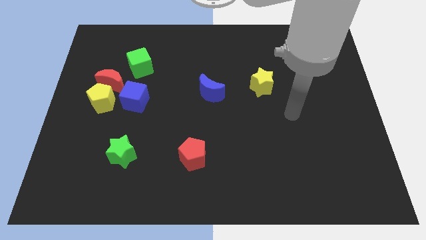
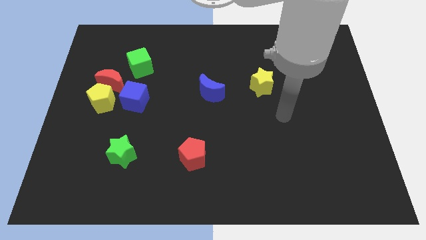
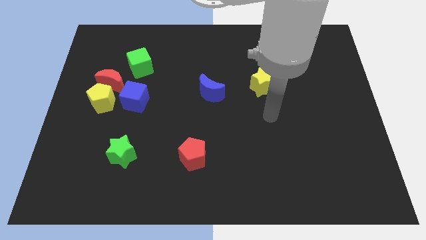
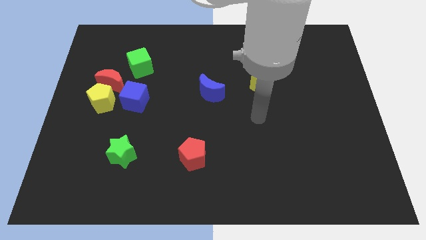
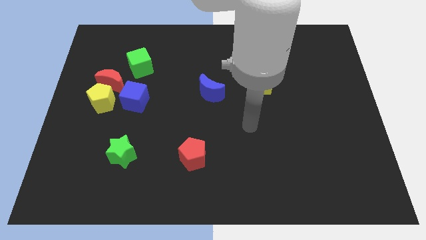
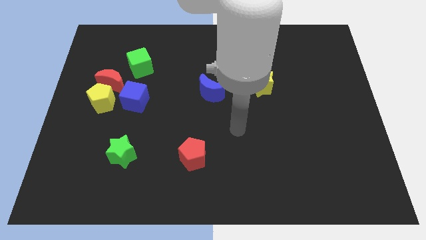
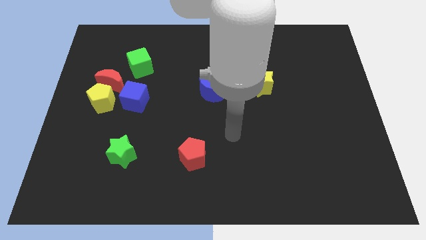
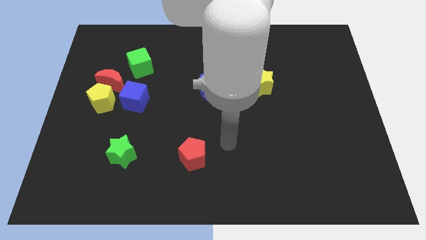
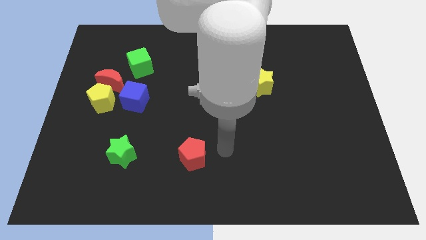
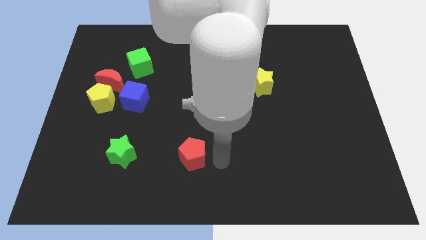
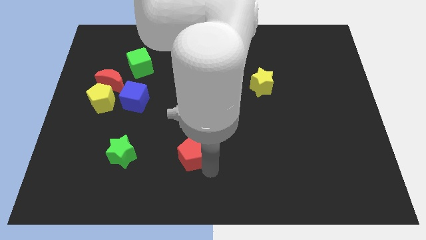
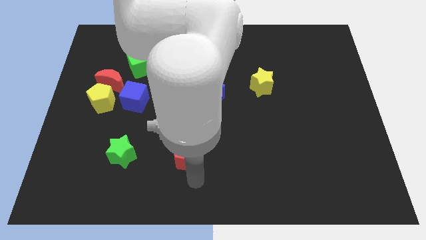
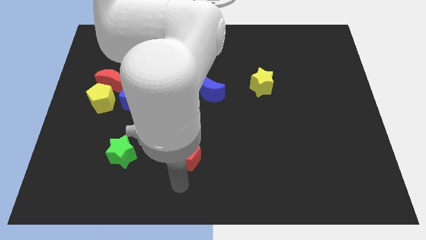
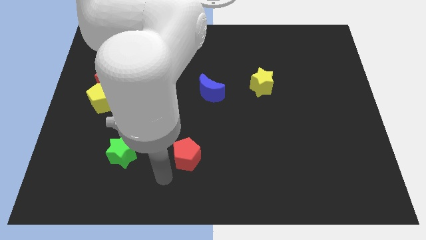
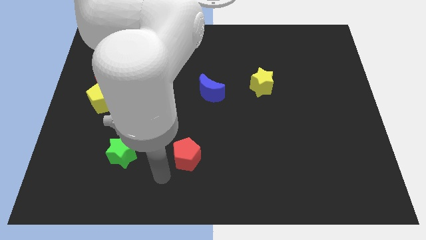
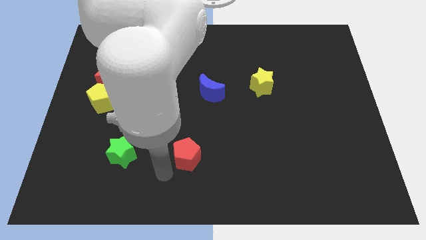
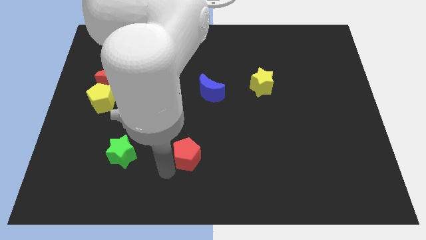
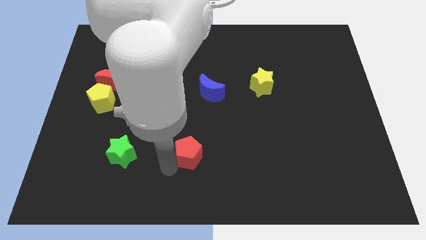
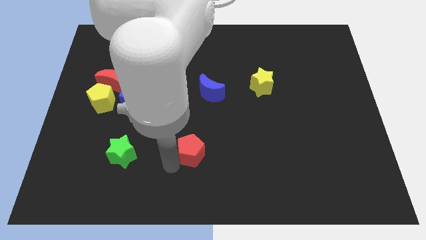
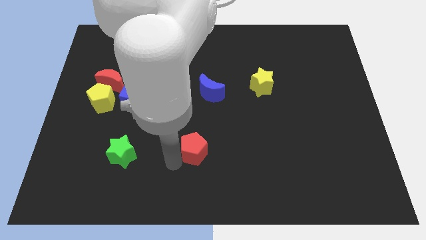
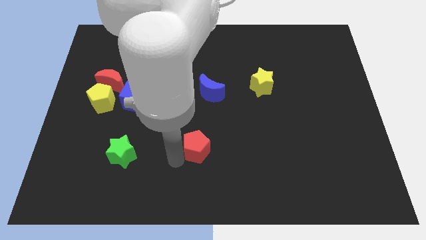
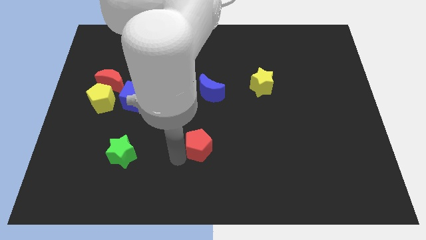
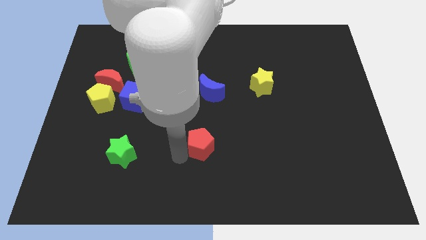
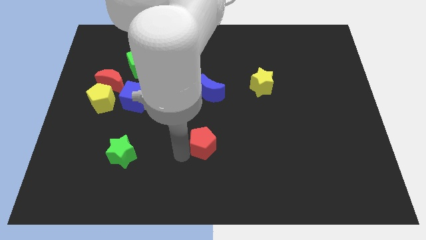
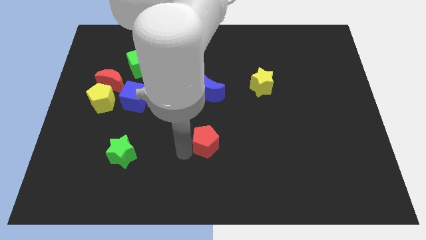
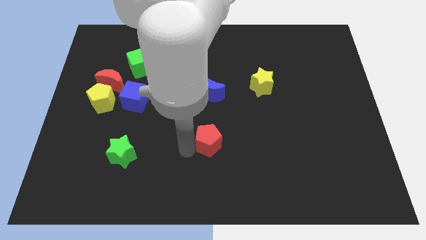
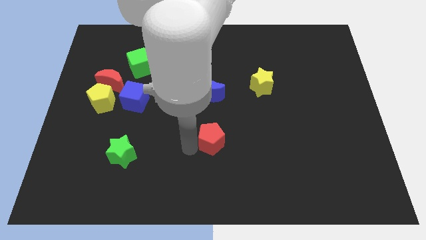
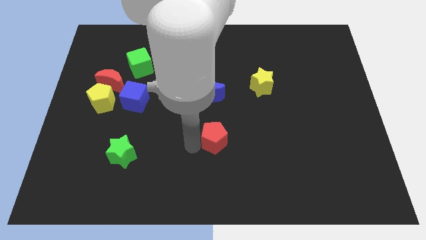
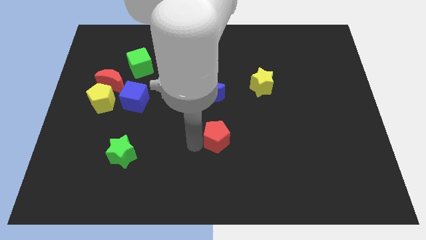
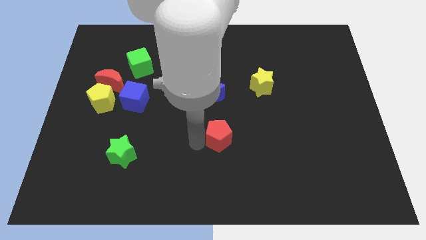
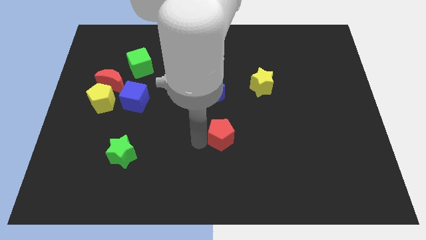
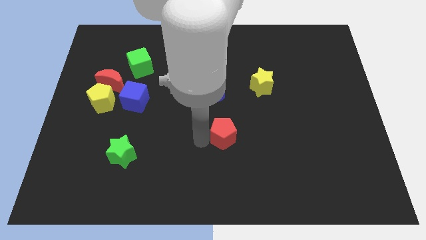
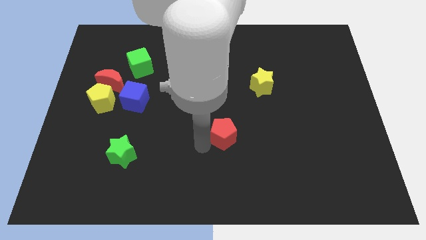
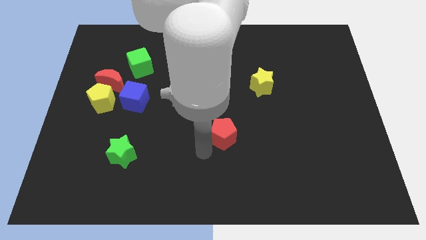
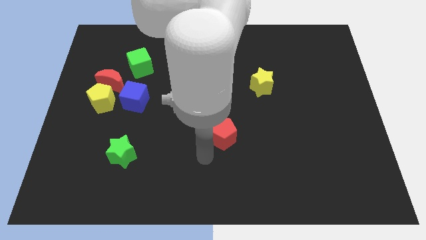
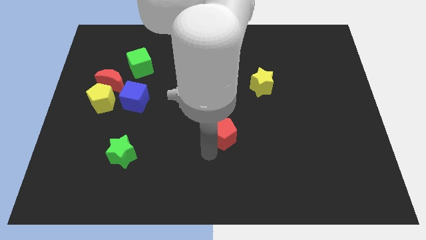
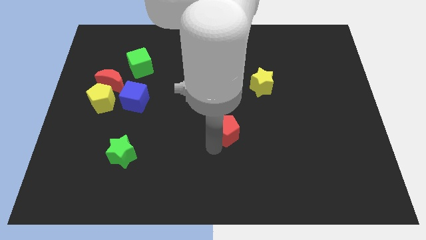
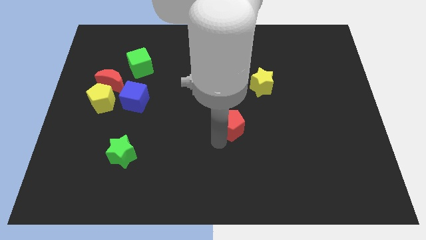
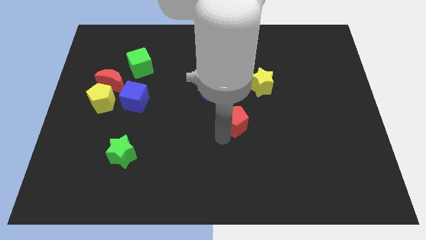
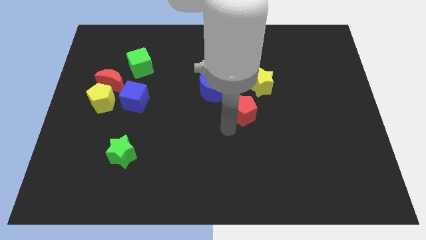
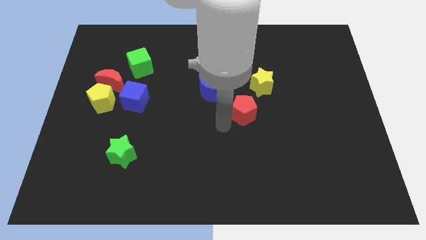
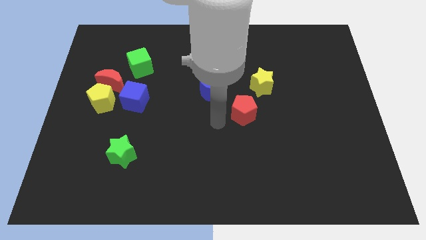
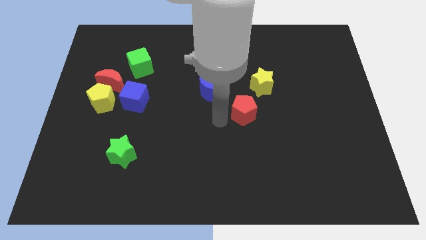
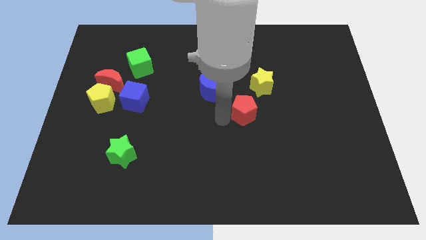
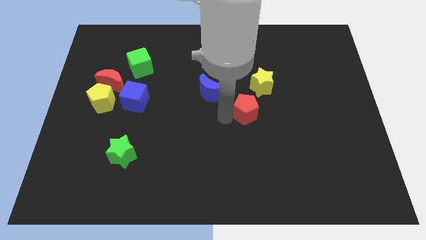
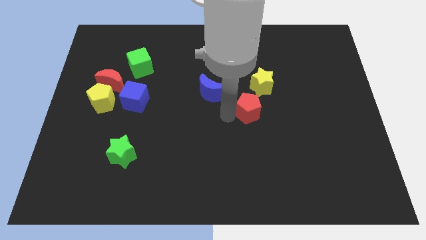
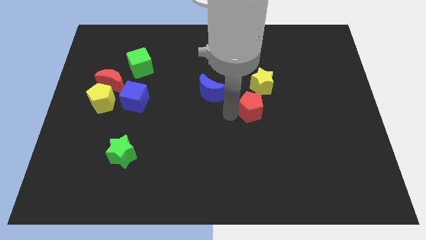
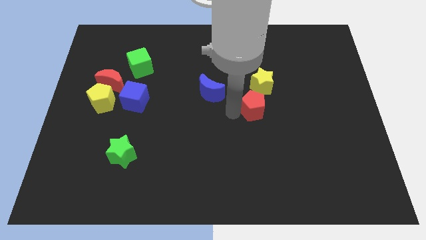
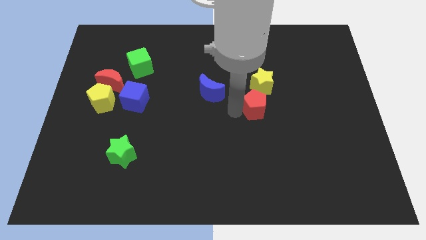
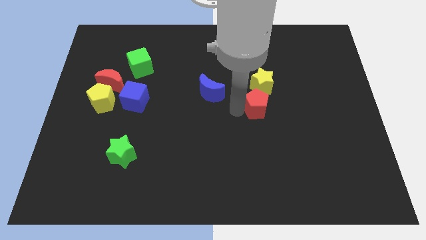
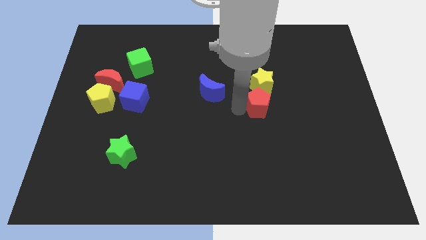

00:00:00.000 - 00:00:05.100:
push the red pentagon up and then right

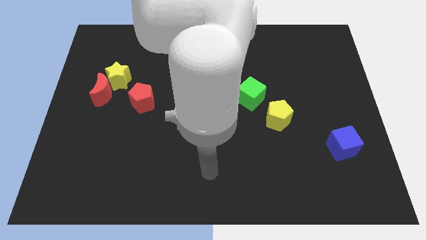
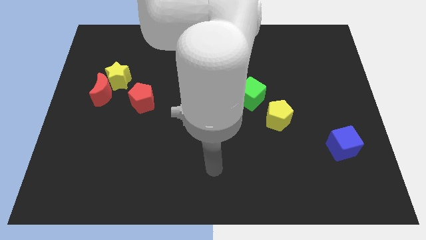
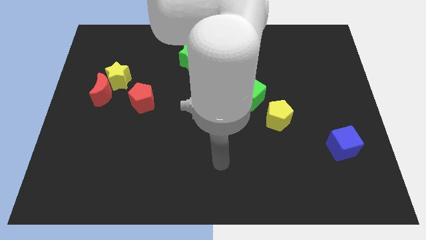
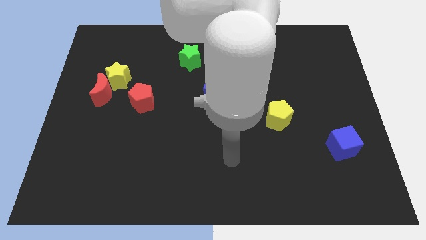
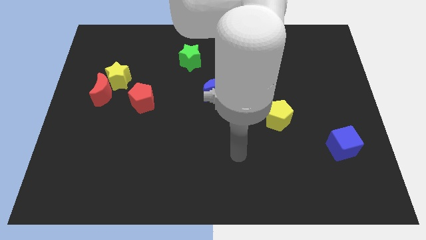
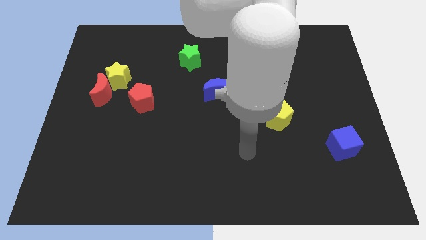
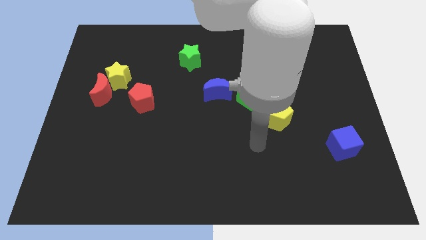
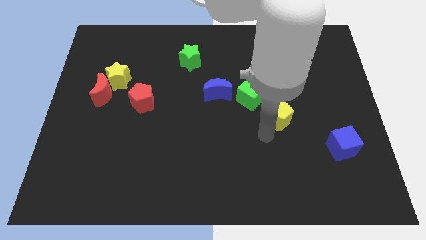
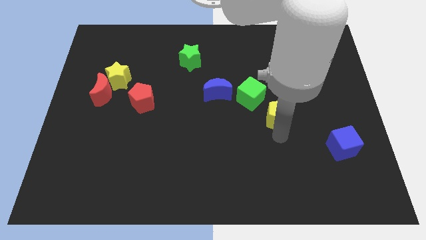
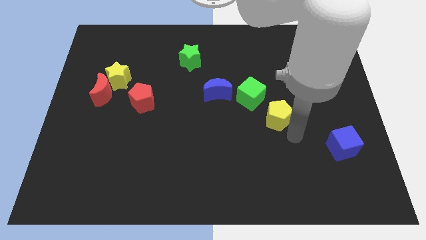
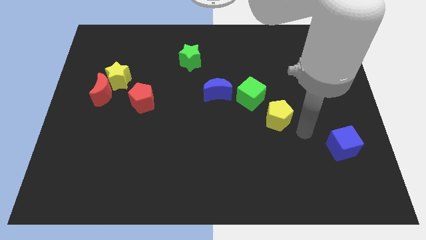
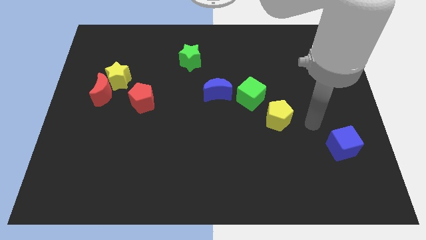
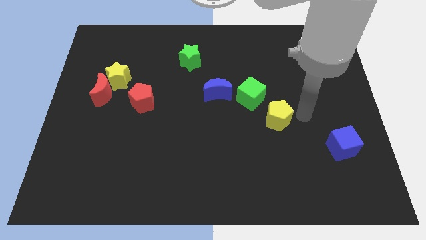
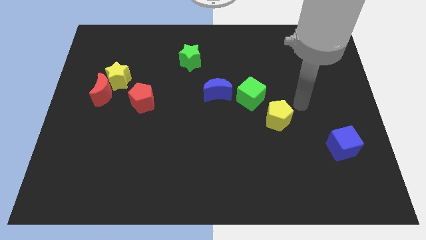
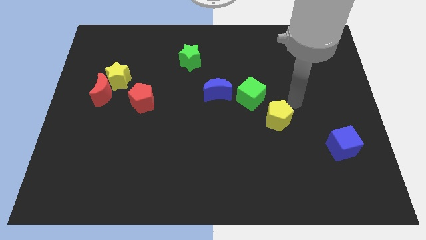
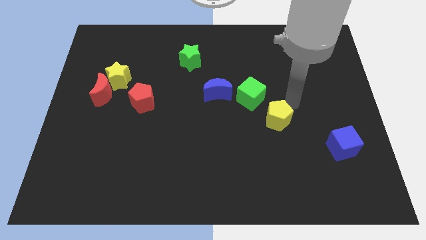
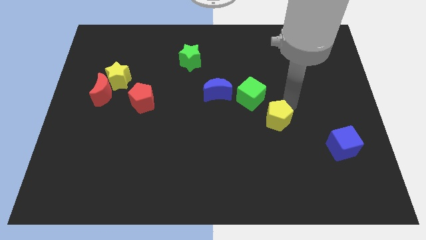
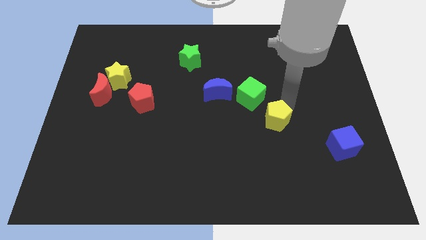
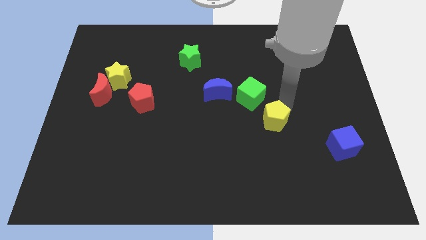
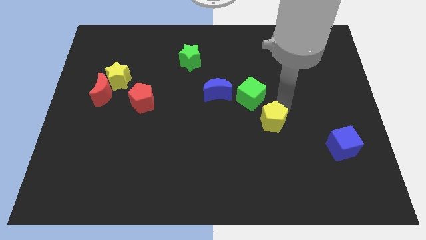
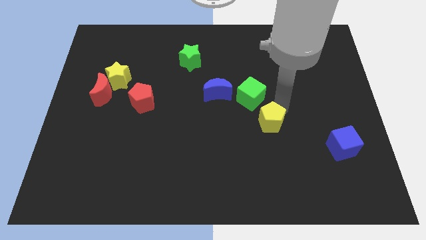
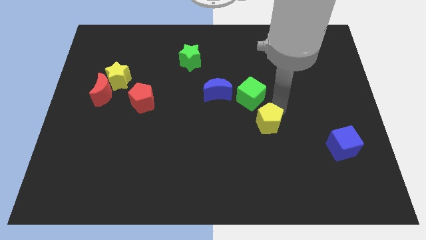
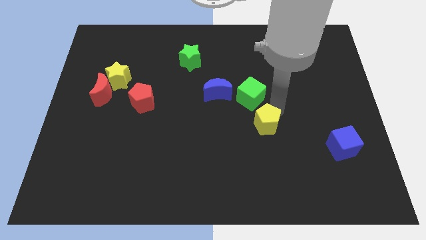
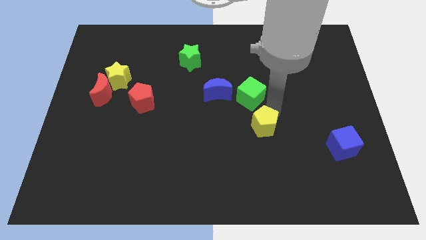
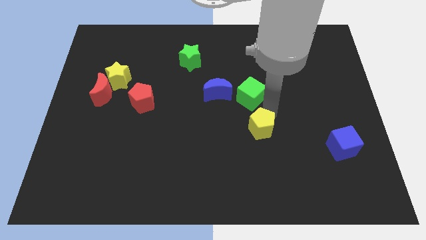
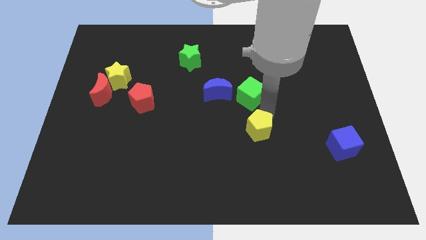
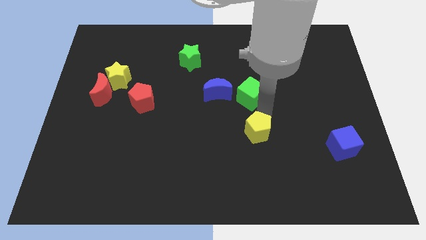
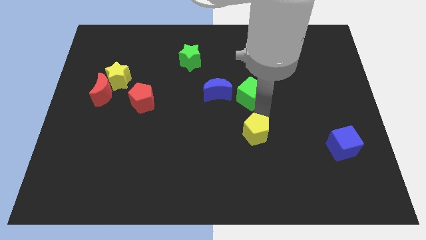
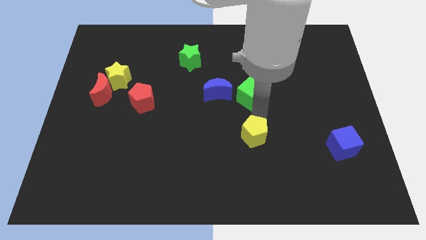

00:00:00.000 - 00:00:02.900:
slightly slide the yellow pentagon diagonally downwards and left
